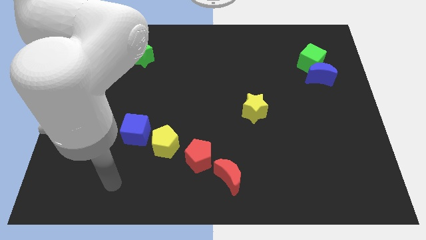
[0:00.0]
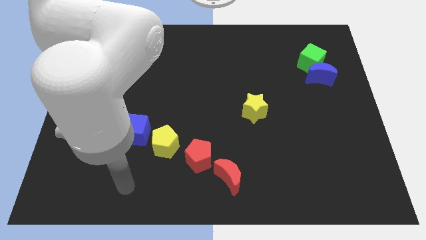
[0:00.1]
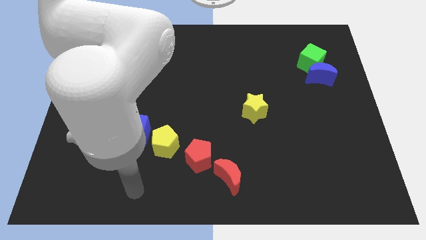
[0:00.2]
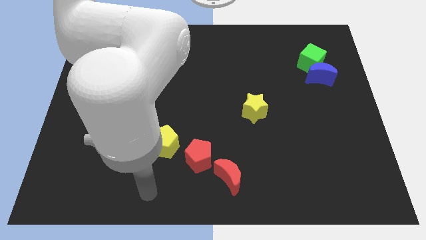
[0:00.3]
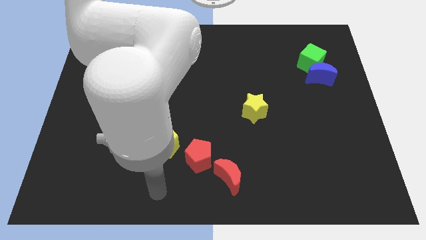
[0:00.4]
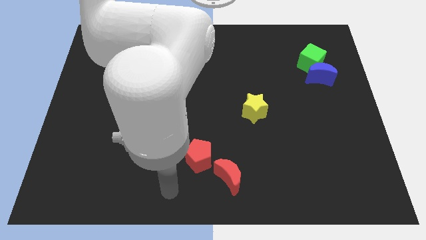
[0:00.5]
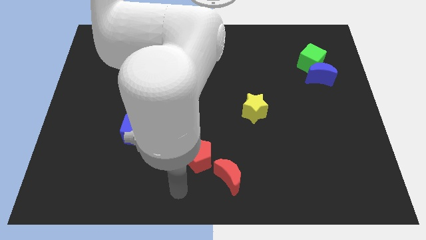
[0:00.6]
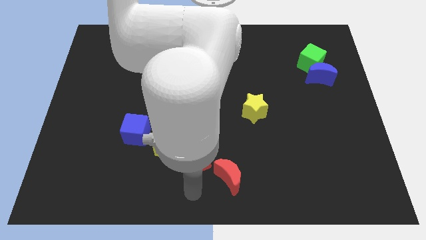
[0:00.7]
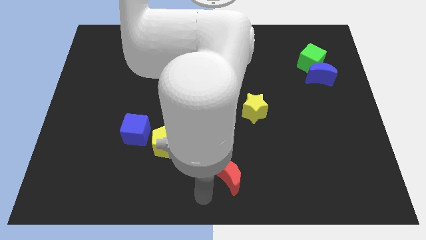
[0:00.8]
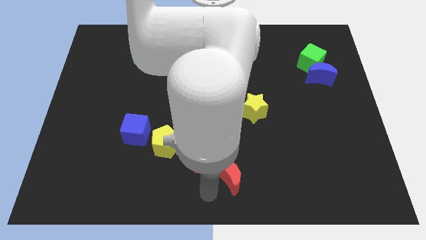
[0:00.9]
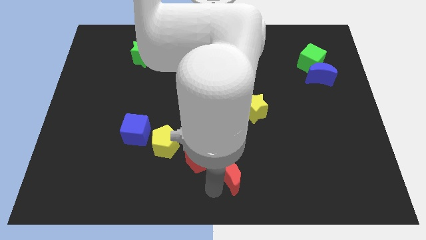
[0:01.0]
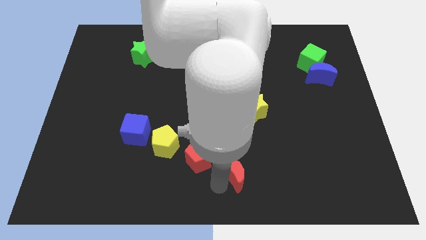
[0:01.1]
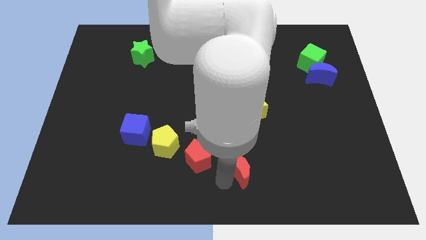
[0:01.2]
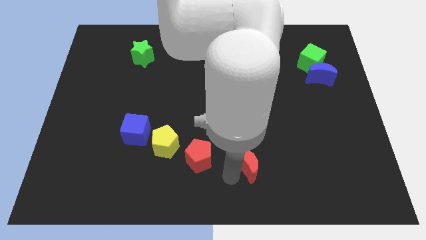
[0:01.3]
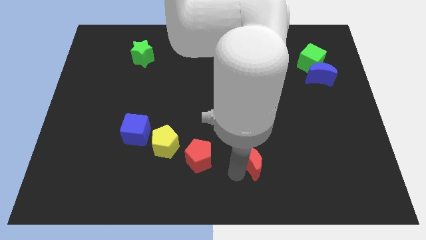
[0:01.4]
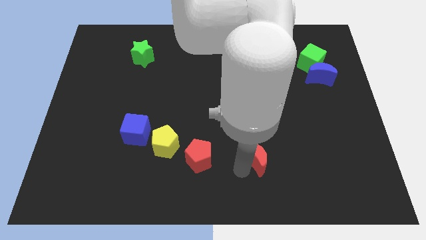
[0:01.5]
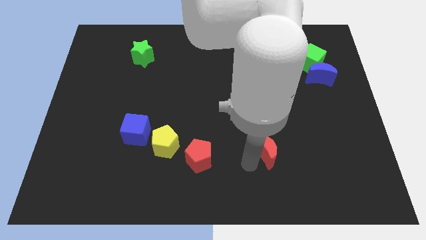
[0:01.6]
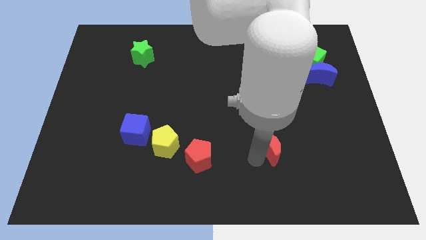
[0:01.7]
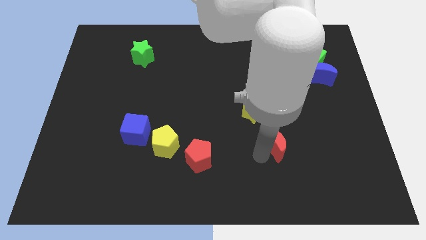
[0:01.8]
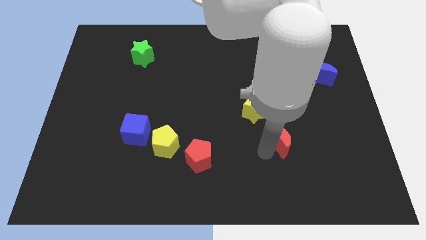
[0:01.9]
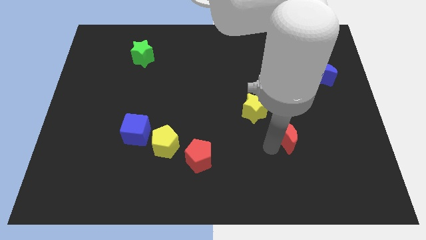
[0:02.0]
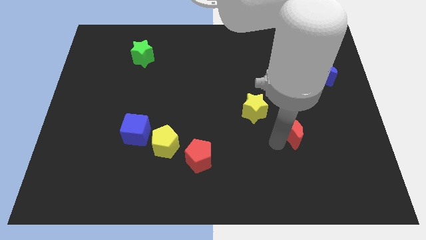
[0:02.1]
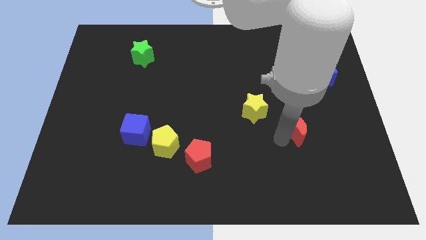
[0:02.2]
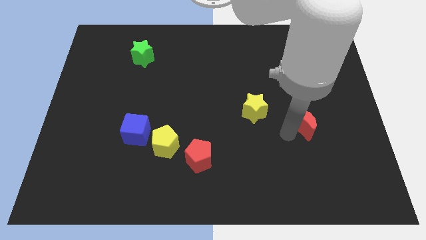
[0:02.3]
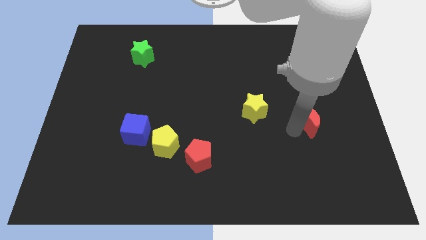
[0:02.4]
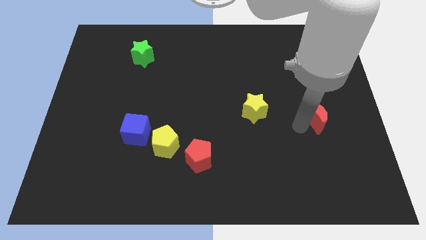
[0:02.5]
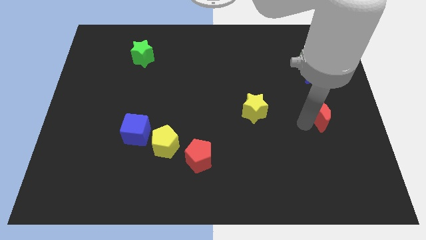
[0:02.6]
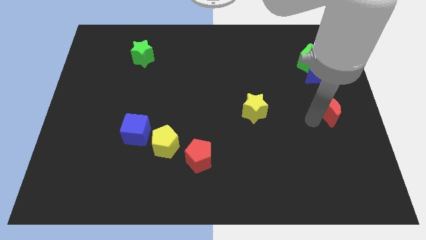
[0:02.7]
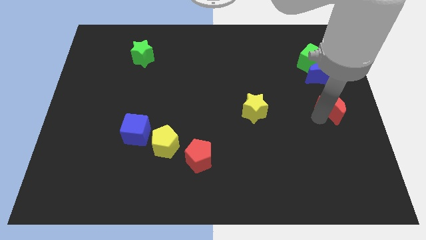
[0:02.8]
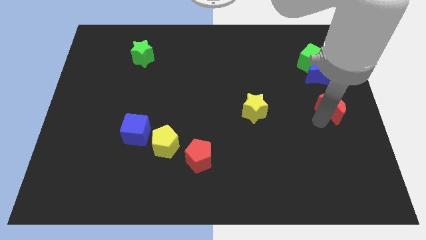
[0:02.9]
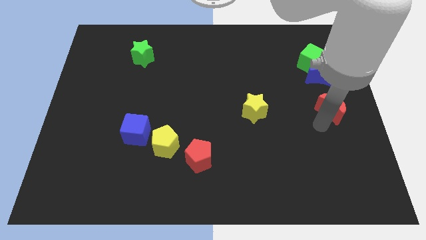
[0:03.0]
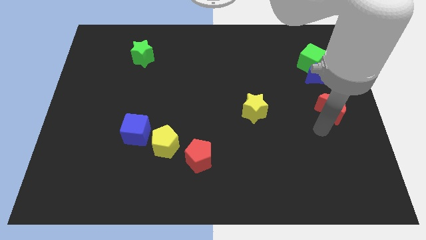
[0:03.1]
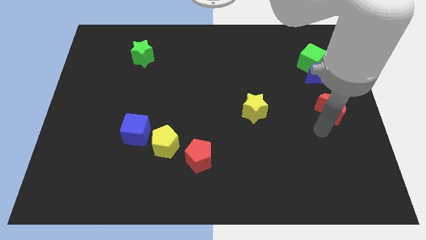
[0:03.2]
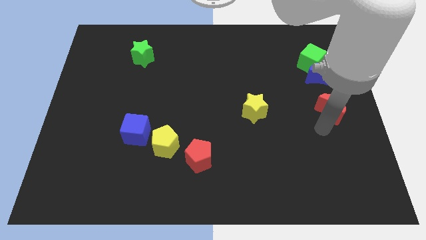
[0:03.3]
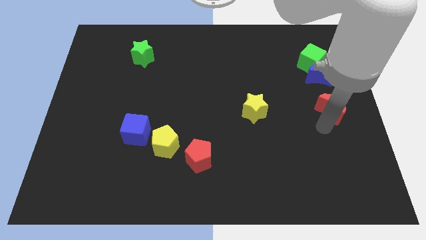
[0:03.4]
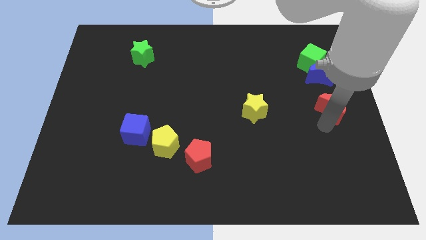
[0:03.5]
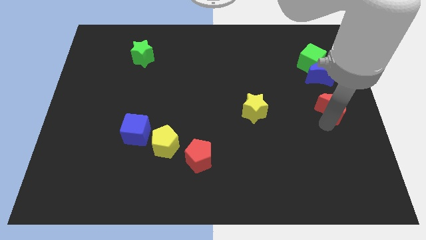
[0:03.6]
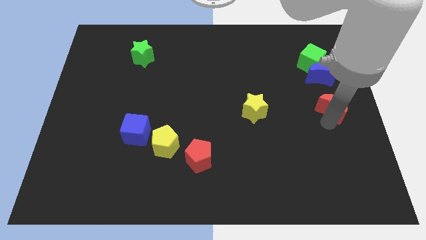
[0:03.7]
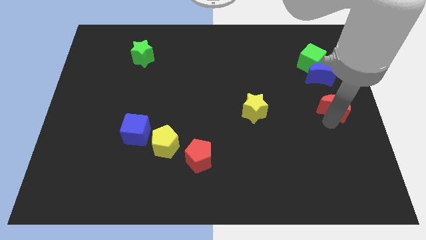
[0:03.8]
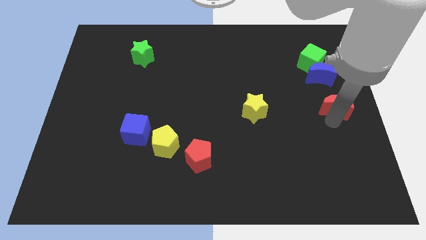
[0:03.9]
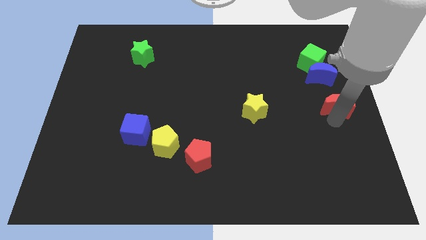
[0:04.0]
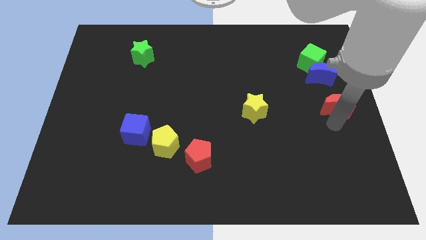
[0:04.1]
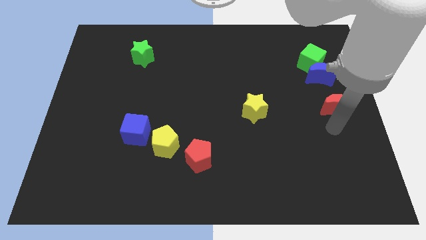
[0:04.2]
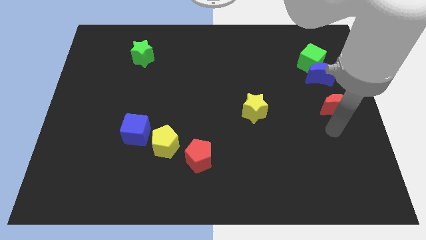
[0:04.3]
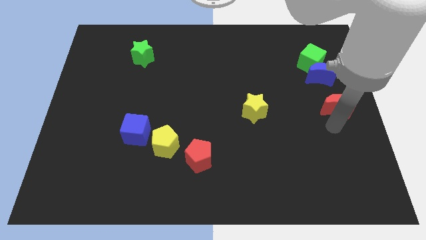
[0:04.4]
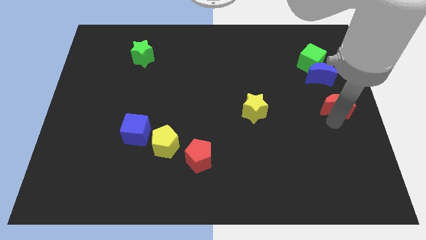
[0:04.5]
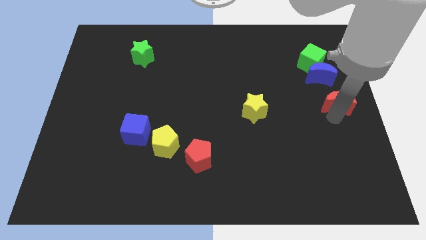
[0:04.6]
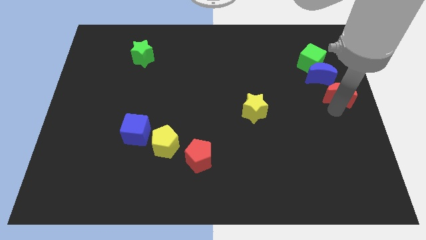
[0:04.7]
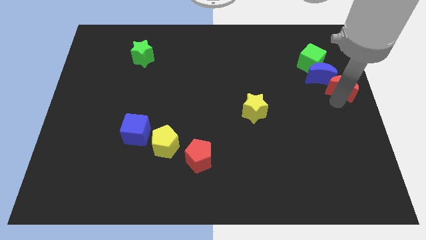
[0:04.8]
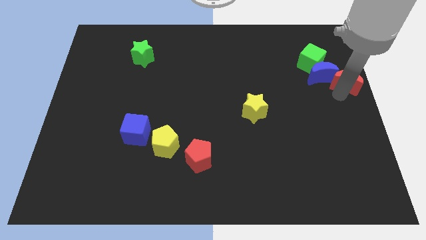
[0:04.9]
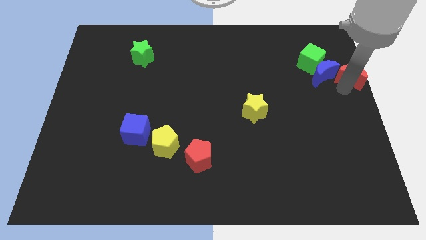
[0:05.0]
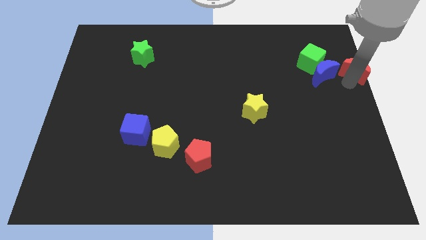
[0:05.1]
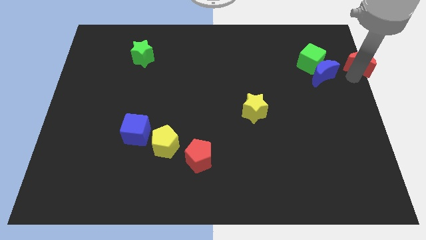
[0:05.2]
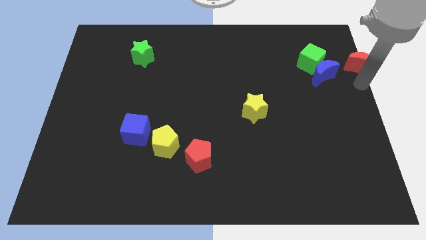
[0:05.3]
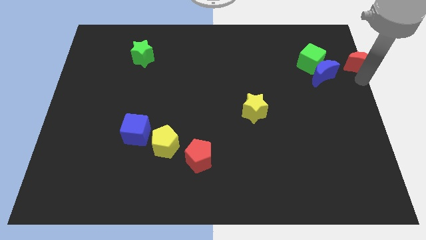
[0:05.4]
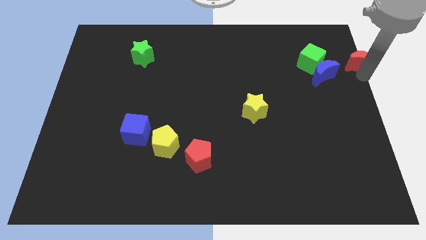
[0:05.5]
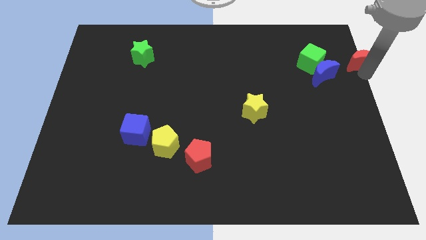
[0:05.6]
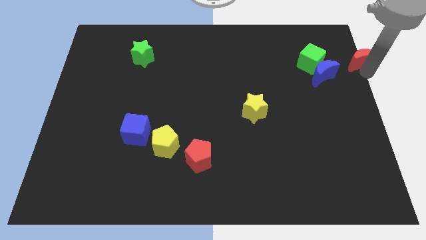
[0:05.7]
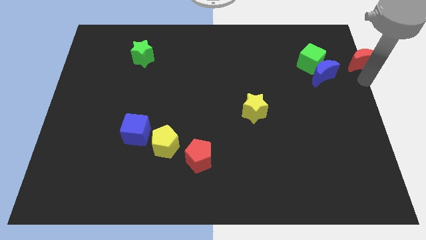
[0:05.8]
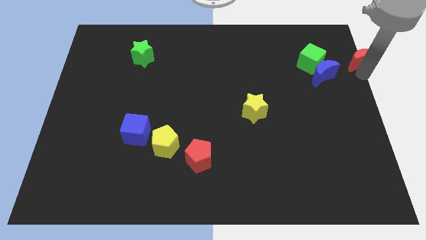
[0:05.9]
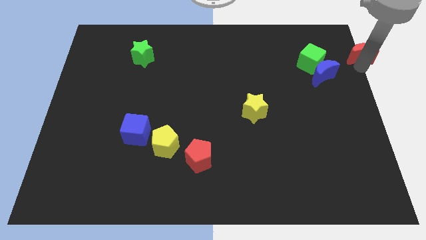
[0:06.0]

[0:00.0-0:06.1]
put the red moon to the top right of the board
